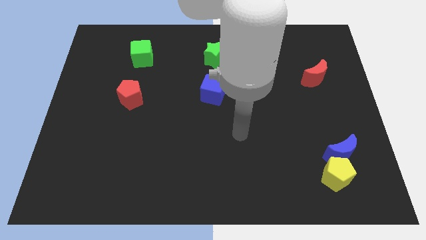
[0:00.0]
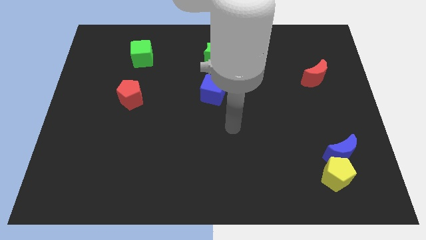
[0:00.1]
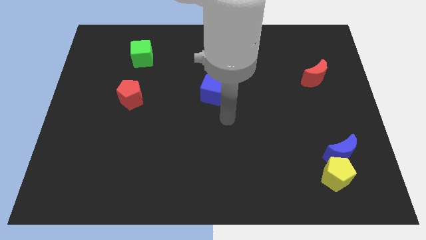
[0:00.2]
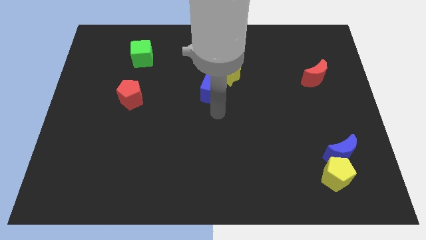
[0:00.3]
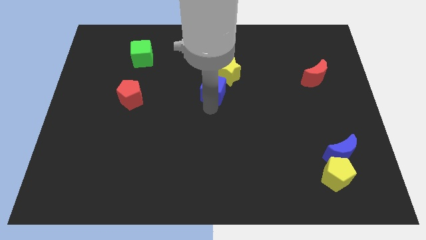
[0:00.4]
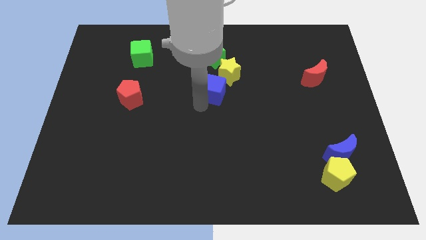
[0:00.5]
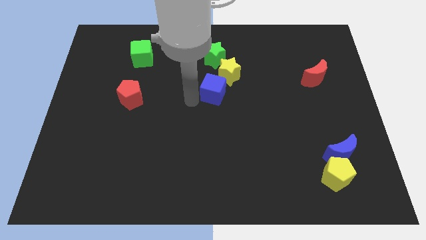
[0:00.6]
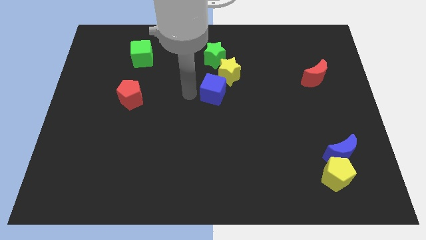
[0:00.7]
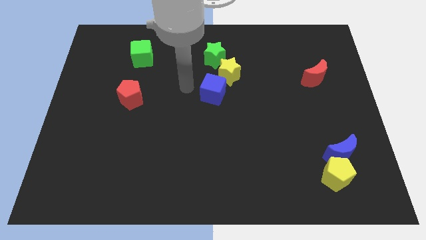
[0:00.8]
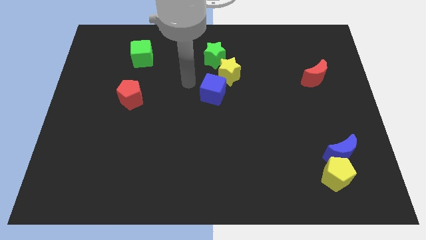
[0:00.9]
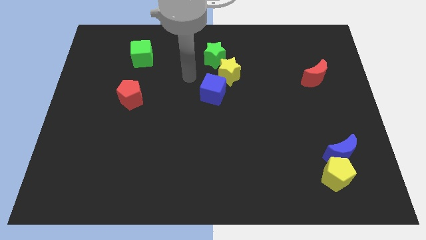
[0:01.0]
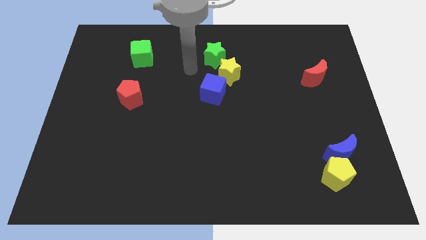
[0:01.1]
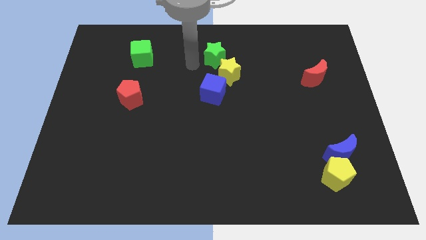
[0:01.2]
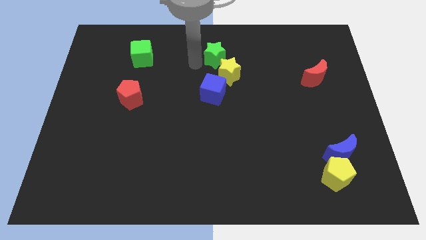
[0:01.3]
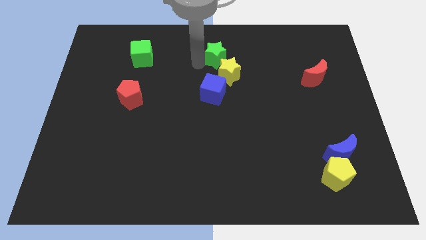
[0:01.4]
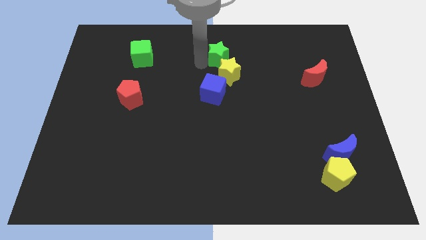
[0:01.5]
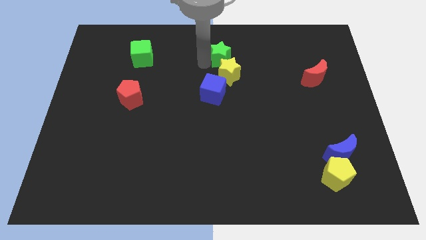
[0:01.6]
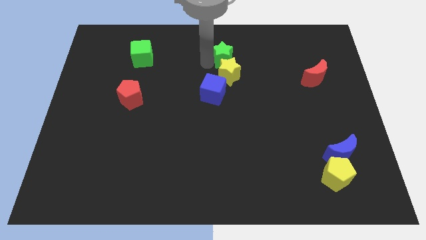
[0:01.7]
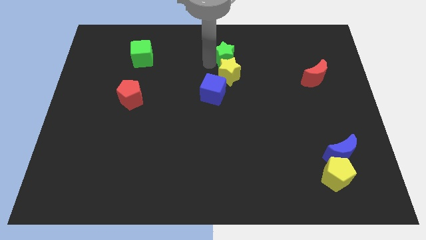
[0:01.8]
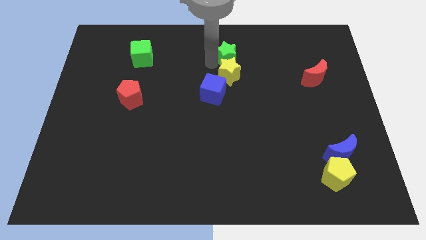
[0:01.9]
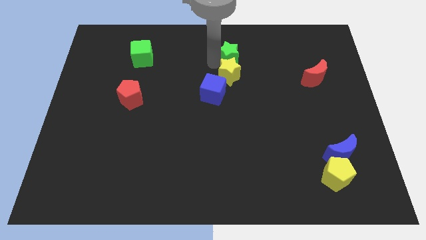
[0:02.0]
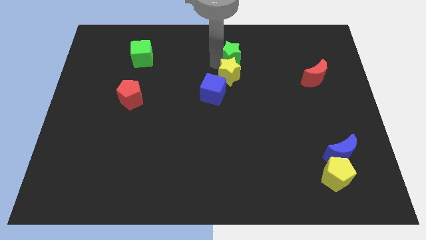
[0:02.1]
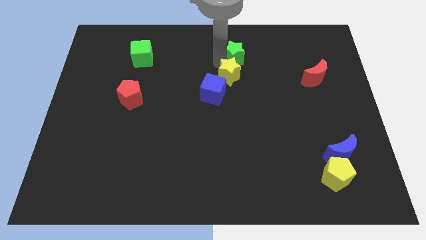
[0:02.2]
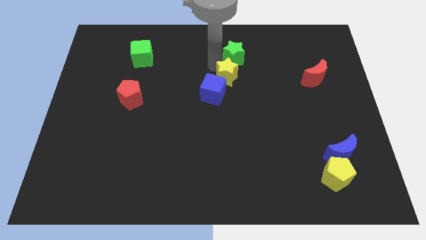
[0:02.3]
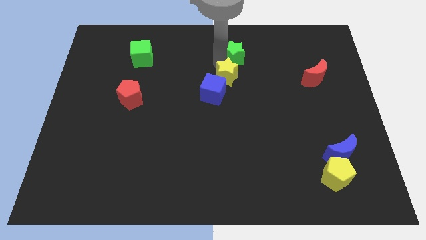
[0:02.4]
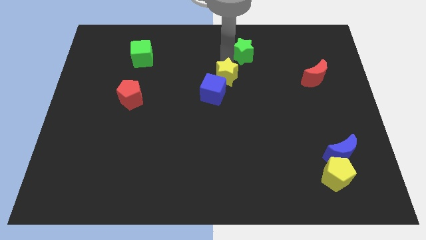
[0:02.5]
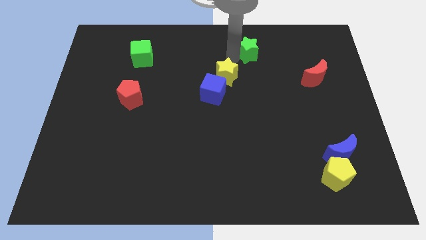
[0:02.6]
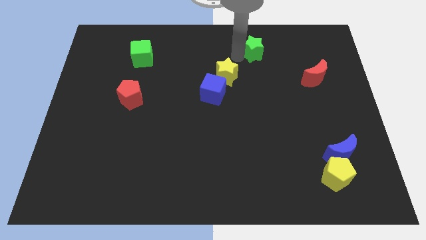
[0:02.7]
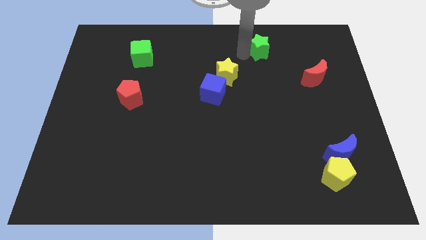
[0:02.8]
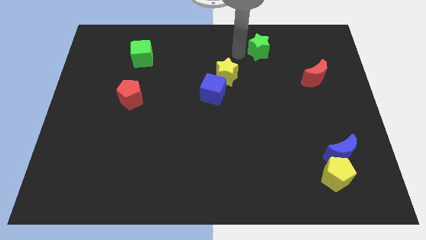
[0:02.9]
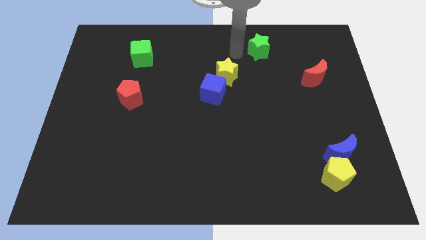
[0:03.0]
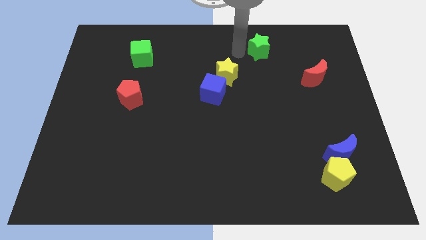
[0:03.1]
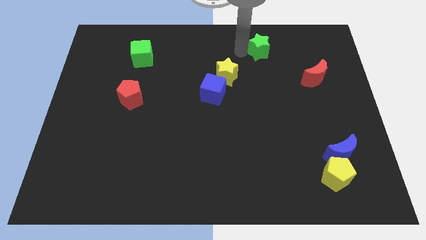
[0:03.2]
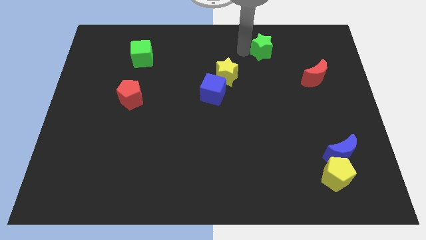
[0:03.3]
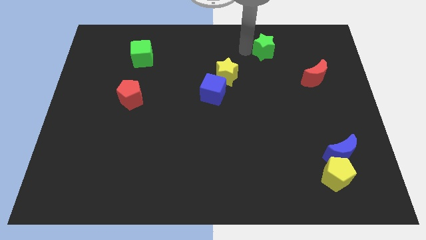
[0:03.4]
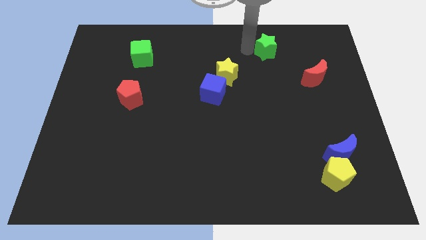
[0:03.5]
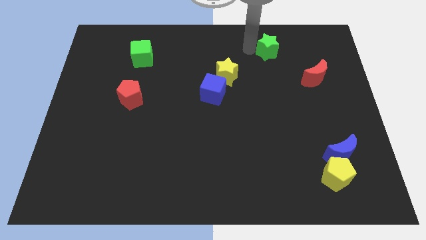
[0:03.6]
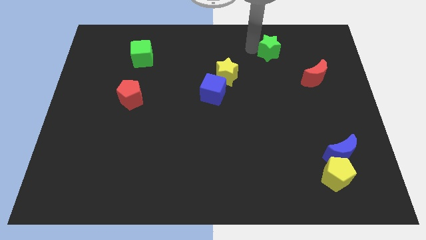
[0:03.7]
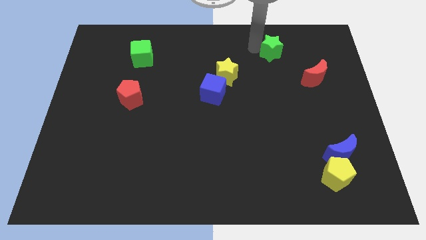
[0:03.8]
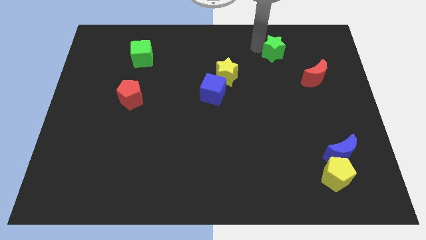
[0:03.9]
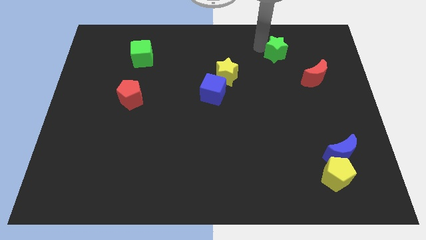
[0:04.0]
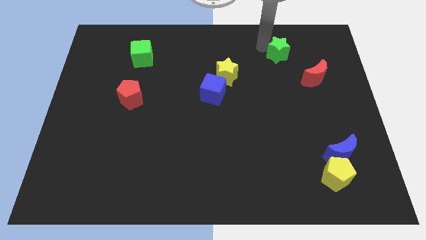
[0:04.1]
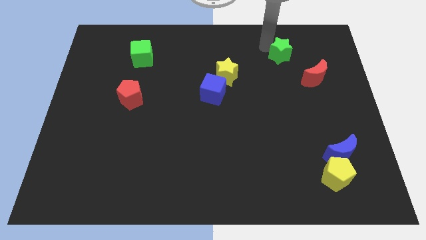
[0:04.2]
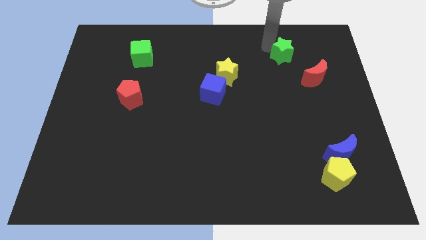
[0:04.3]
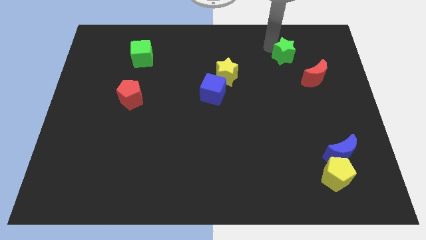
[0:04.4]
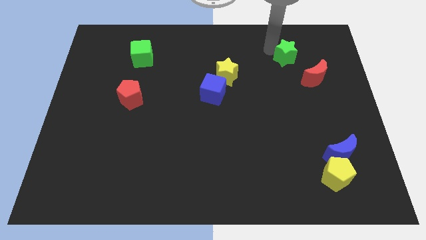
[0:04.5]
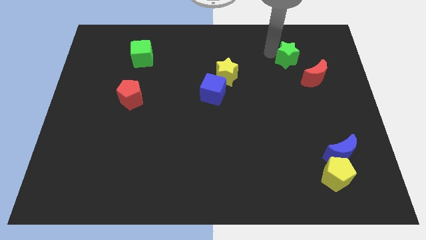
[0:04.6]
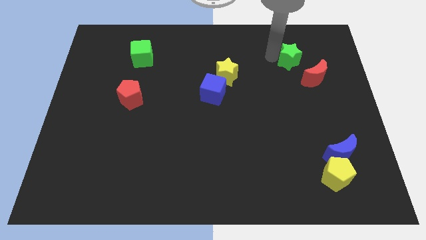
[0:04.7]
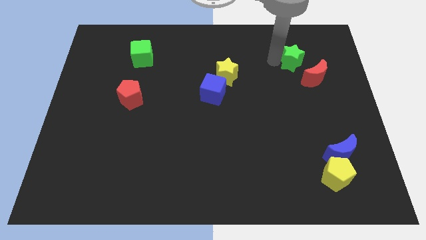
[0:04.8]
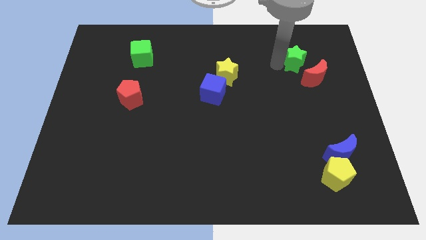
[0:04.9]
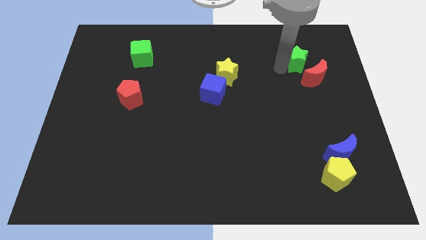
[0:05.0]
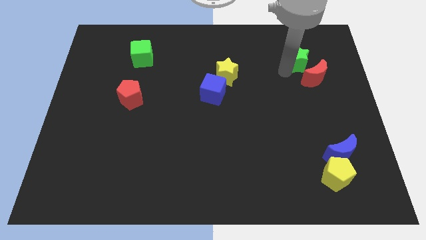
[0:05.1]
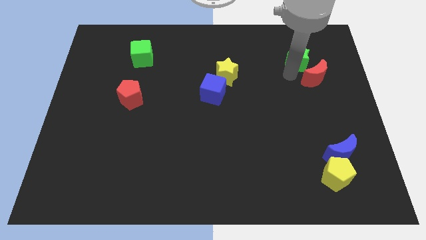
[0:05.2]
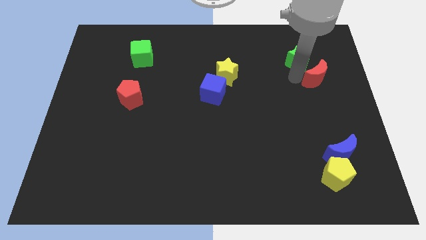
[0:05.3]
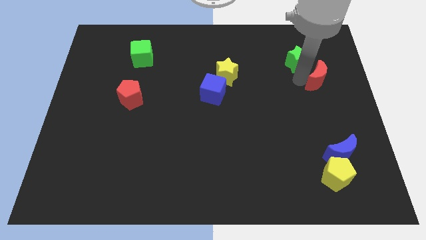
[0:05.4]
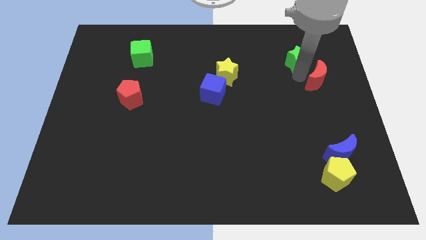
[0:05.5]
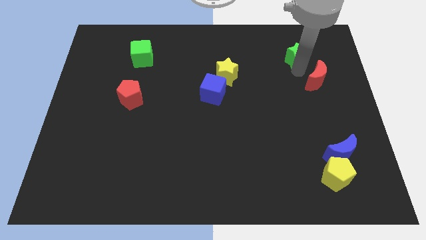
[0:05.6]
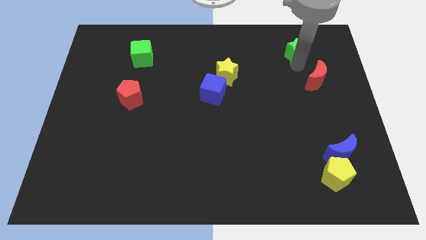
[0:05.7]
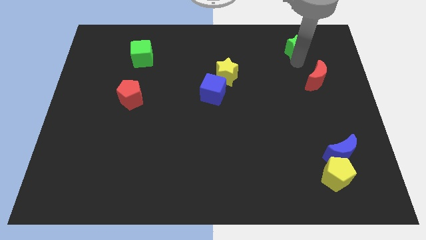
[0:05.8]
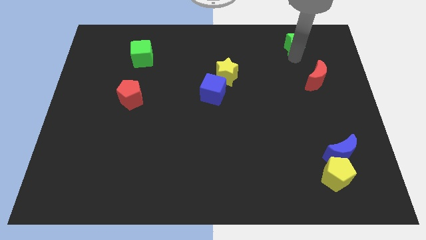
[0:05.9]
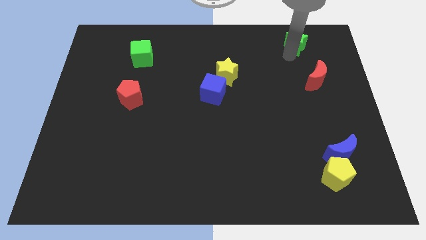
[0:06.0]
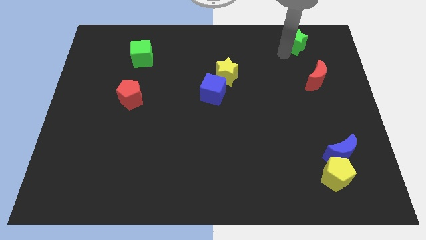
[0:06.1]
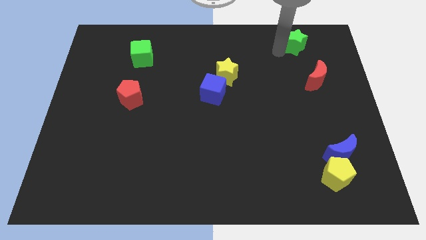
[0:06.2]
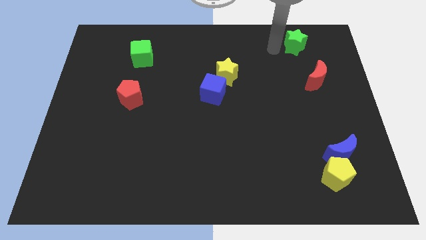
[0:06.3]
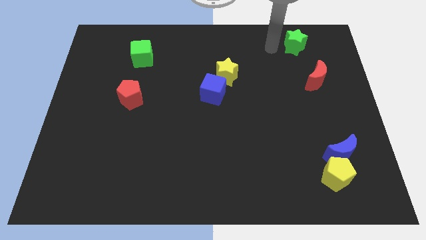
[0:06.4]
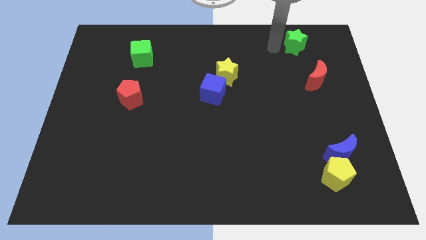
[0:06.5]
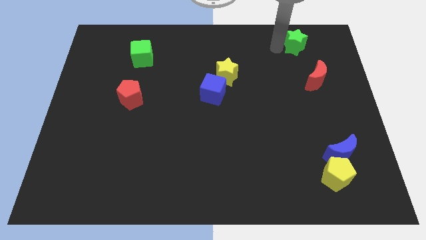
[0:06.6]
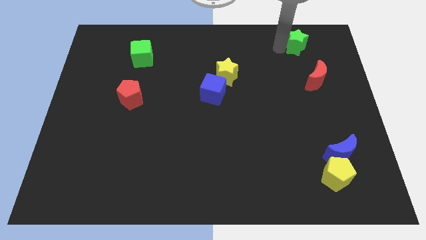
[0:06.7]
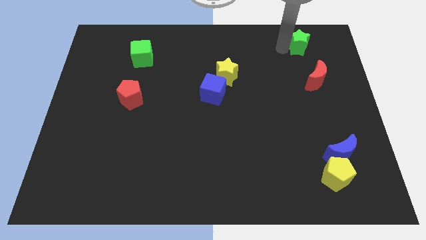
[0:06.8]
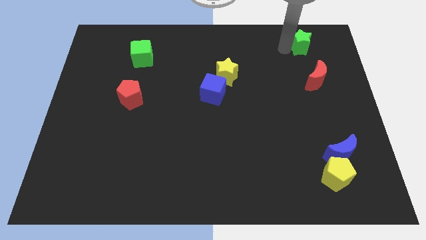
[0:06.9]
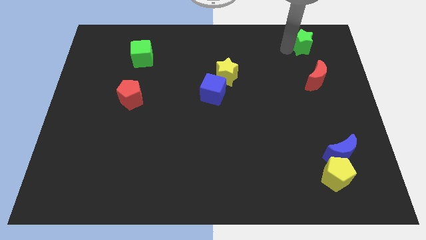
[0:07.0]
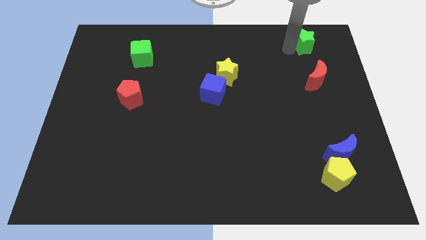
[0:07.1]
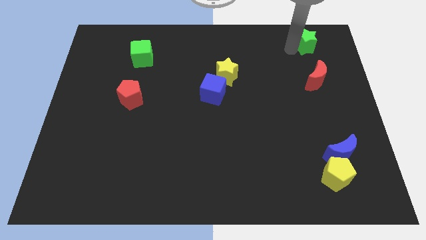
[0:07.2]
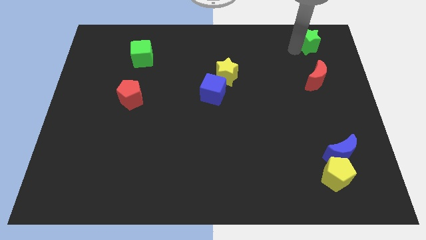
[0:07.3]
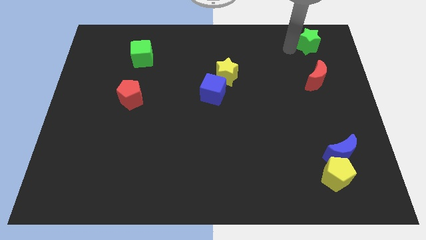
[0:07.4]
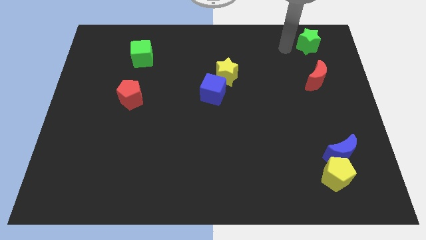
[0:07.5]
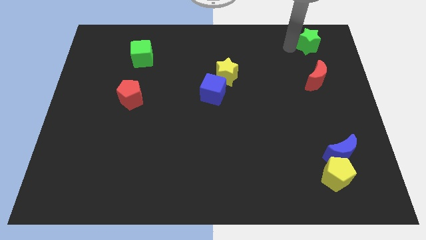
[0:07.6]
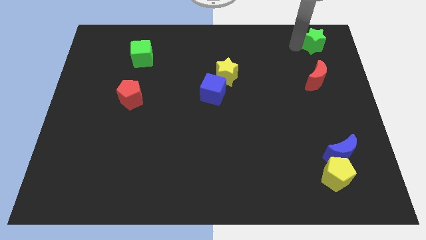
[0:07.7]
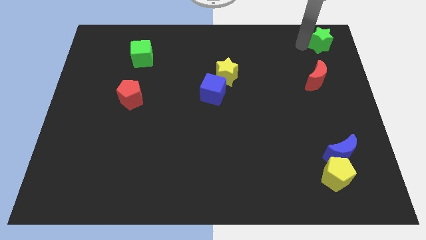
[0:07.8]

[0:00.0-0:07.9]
move the green star to the top right
